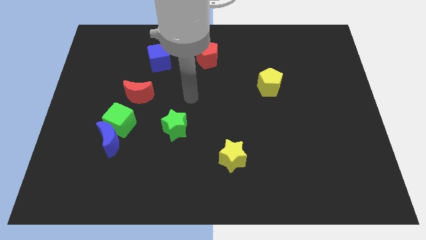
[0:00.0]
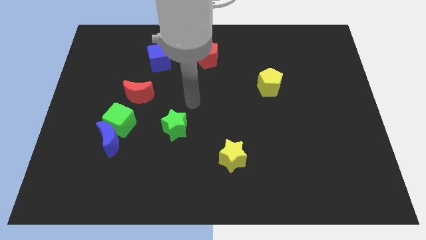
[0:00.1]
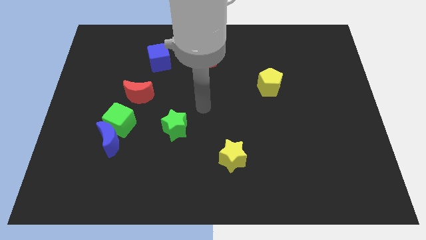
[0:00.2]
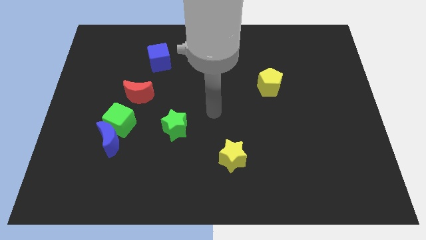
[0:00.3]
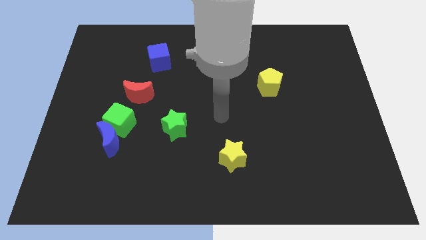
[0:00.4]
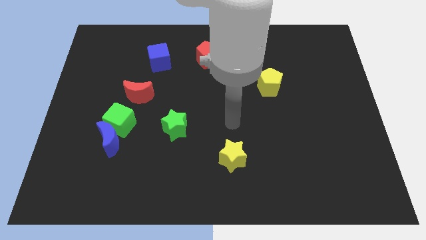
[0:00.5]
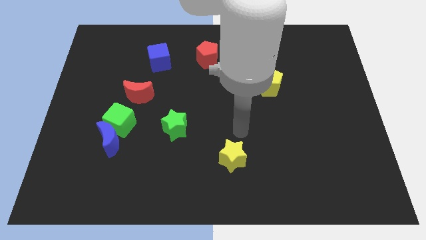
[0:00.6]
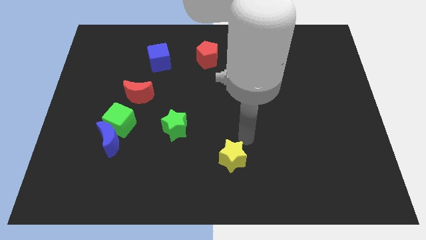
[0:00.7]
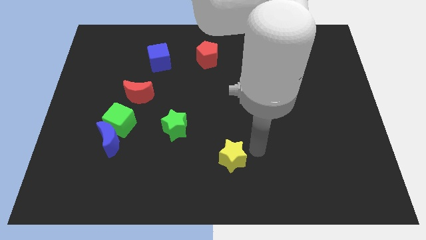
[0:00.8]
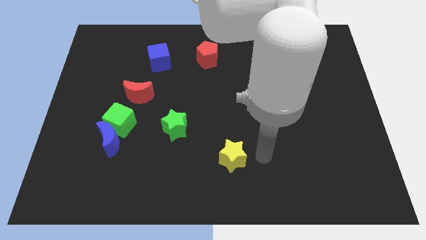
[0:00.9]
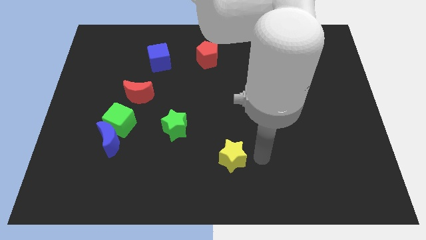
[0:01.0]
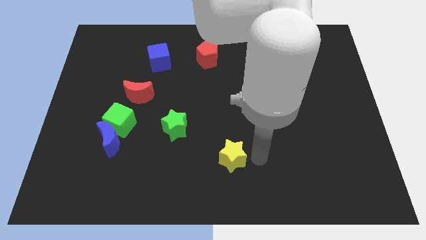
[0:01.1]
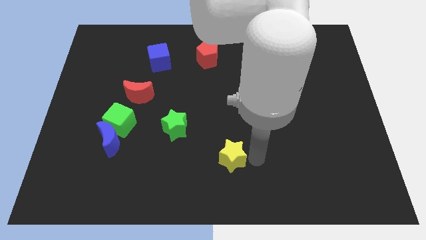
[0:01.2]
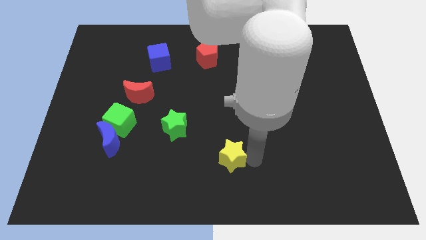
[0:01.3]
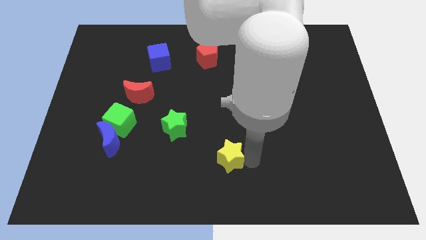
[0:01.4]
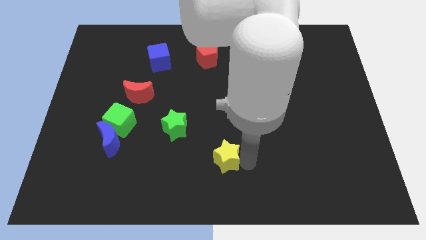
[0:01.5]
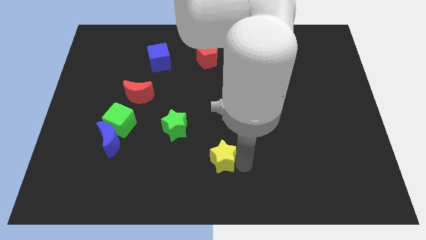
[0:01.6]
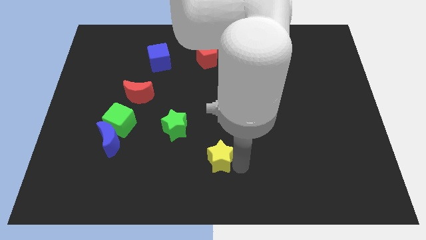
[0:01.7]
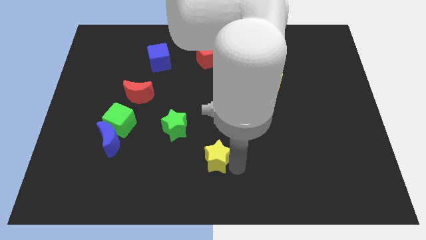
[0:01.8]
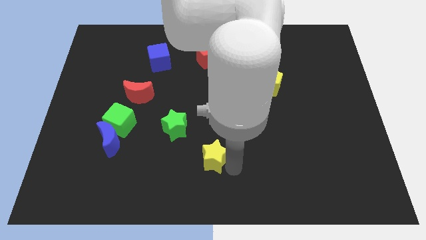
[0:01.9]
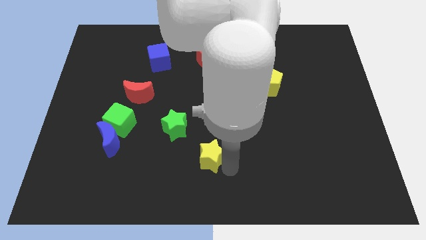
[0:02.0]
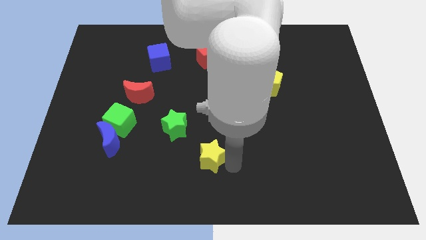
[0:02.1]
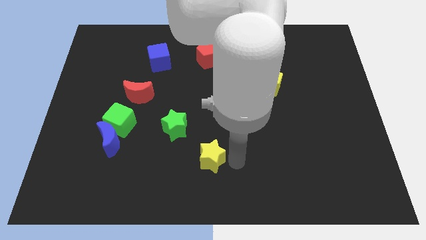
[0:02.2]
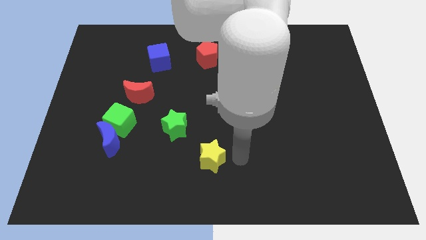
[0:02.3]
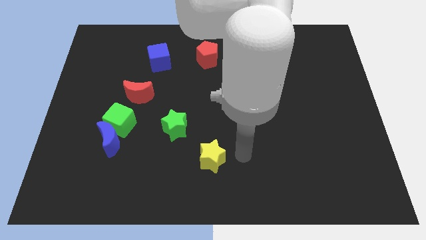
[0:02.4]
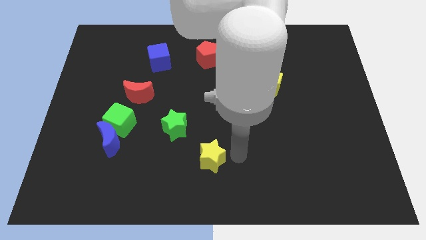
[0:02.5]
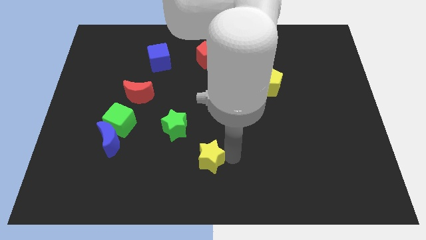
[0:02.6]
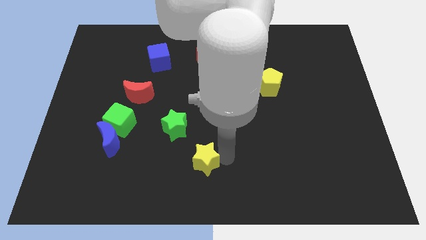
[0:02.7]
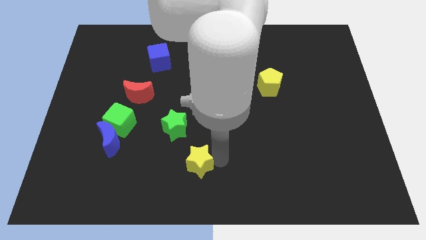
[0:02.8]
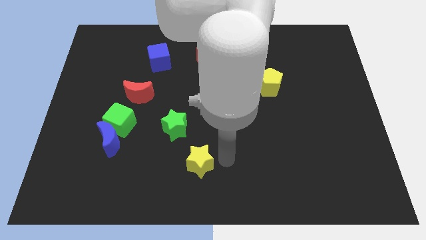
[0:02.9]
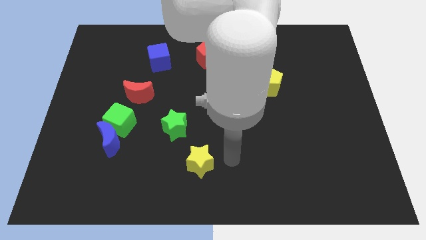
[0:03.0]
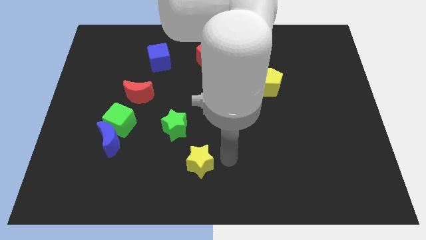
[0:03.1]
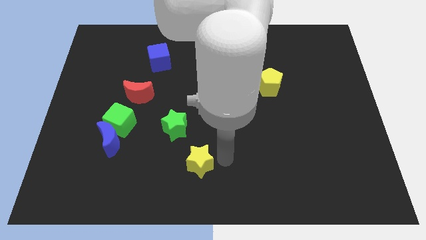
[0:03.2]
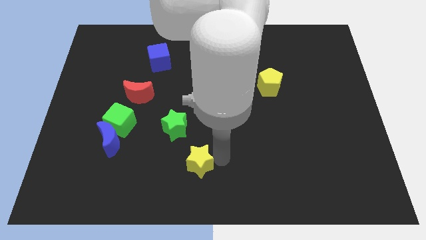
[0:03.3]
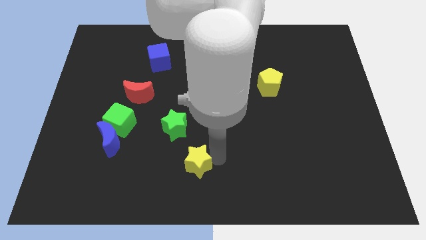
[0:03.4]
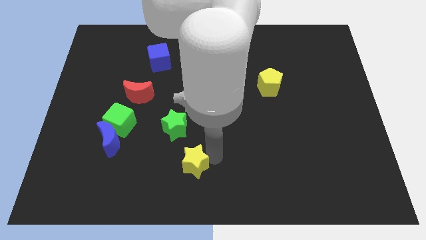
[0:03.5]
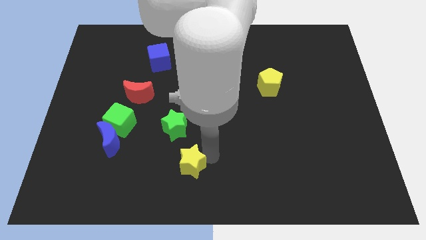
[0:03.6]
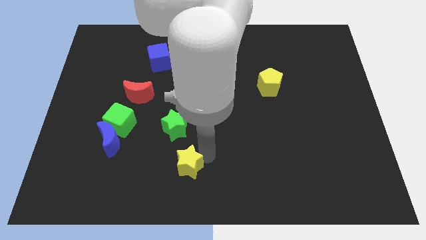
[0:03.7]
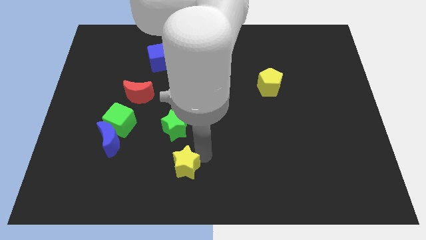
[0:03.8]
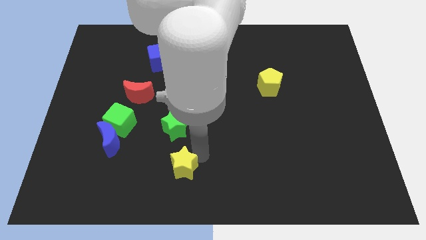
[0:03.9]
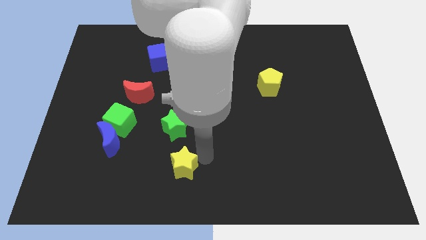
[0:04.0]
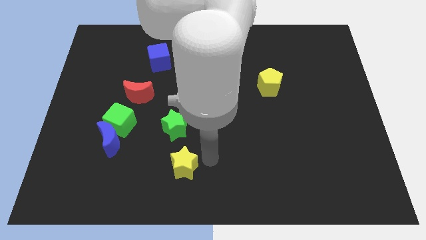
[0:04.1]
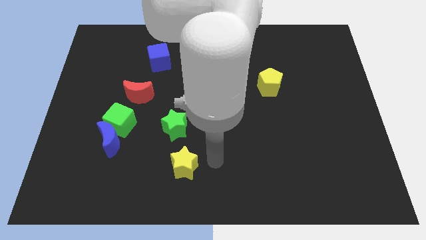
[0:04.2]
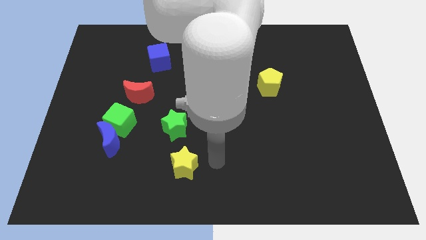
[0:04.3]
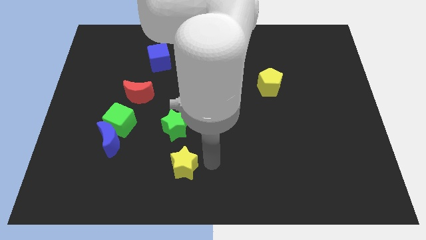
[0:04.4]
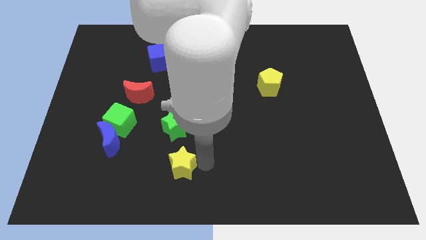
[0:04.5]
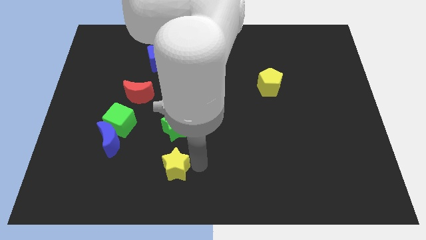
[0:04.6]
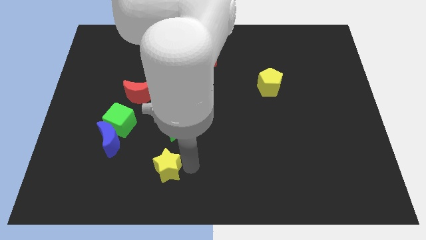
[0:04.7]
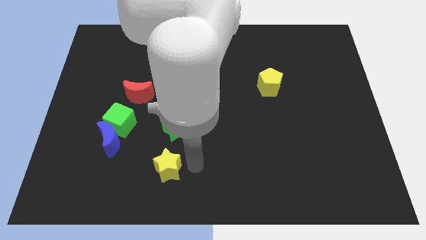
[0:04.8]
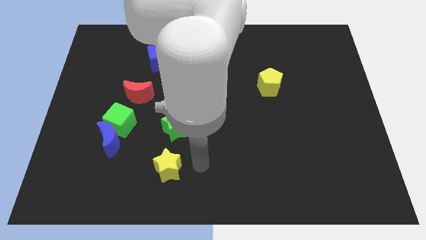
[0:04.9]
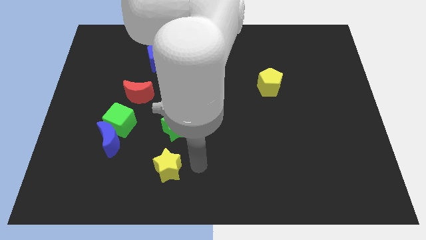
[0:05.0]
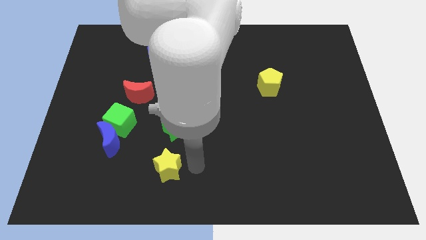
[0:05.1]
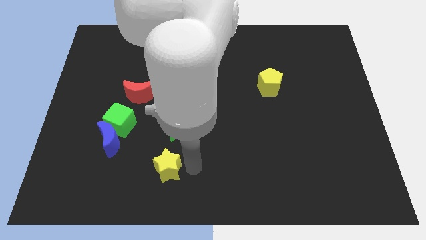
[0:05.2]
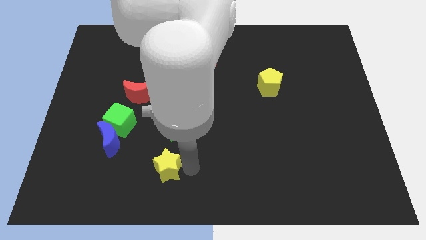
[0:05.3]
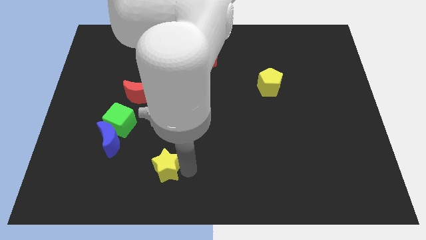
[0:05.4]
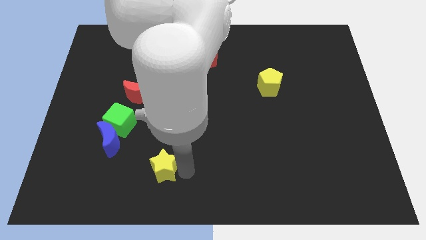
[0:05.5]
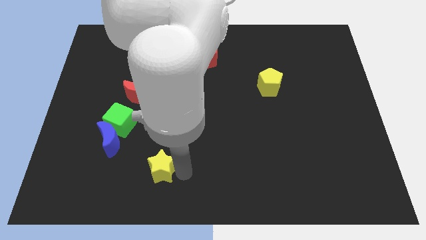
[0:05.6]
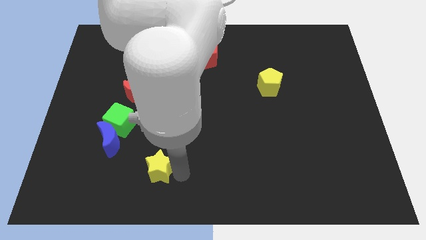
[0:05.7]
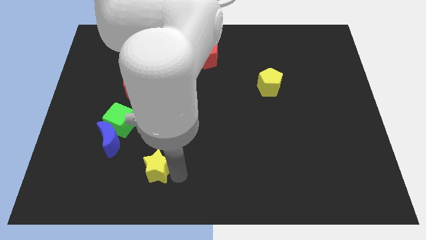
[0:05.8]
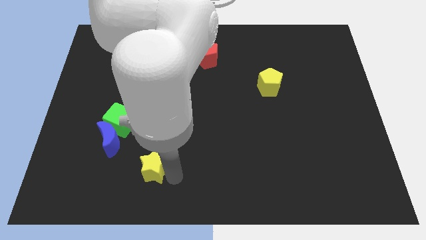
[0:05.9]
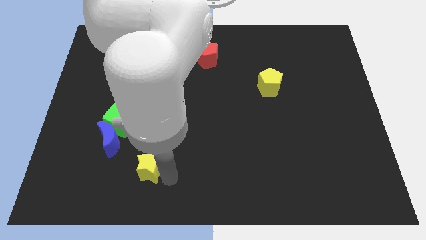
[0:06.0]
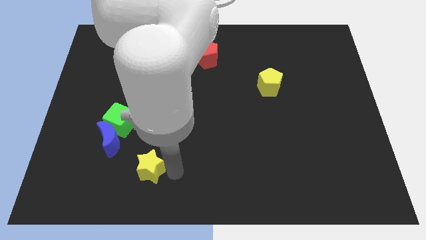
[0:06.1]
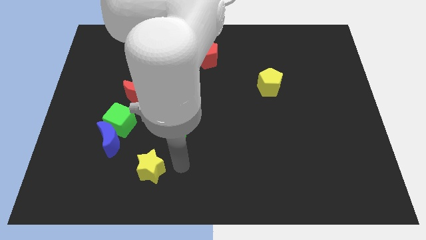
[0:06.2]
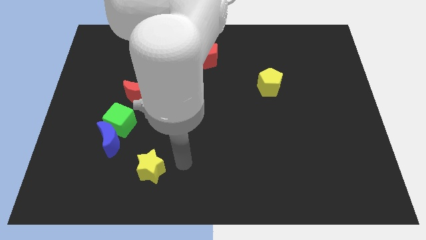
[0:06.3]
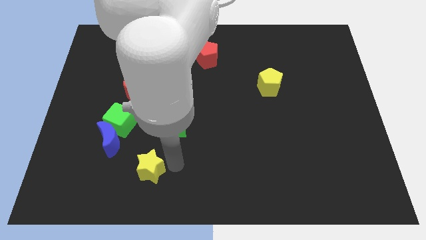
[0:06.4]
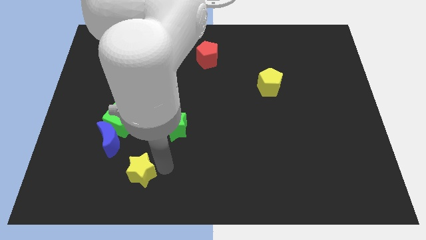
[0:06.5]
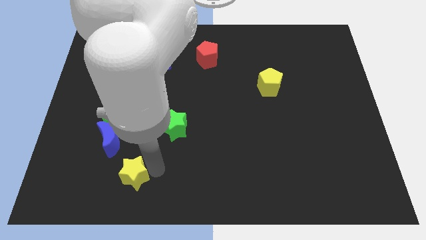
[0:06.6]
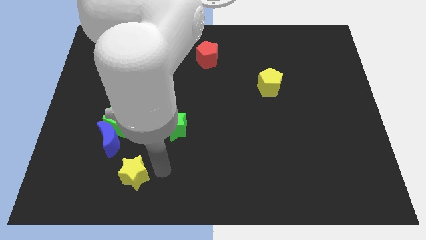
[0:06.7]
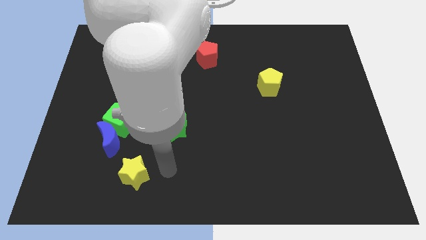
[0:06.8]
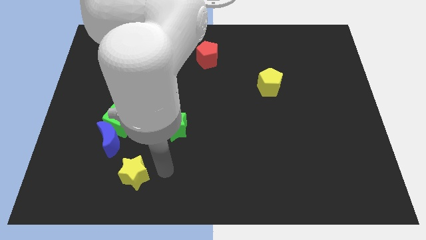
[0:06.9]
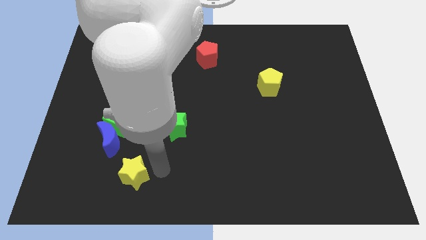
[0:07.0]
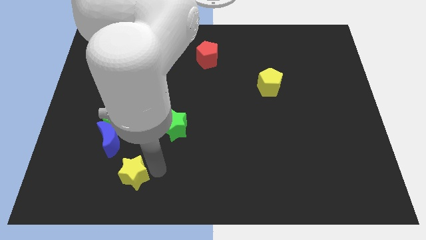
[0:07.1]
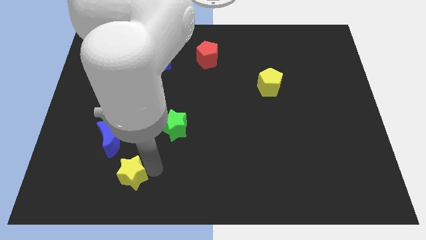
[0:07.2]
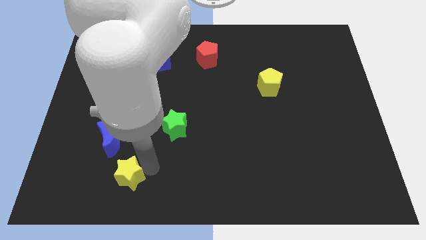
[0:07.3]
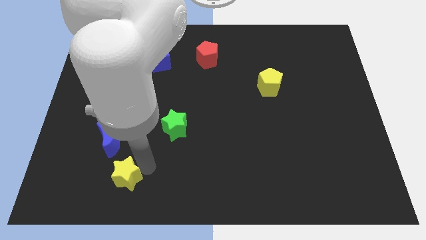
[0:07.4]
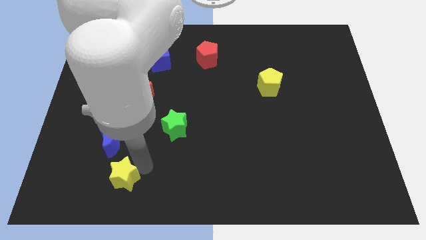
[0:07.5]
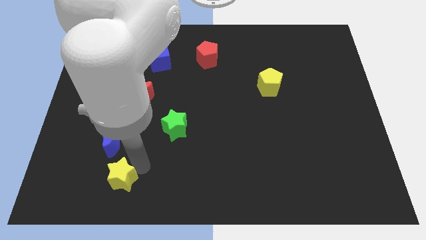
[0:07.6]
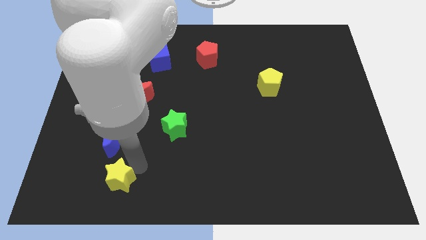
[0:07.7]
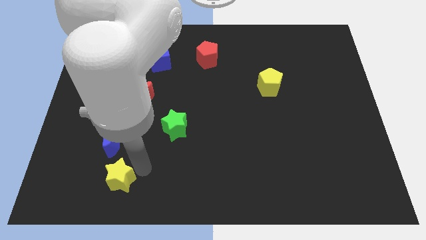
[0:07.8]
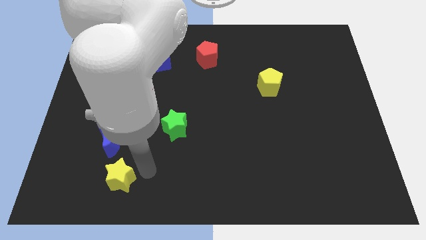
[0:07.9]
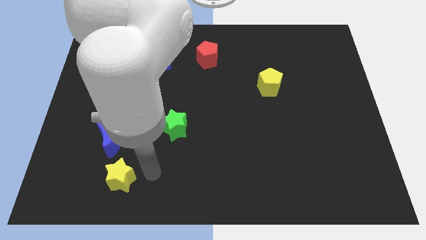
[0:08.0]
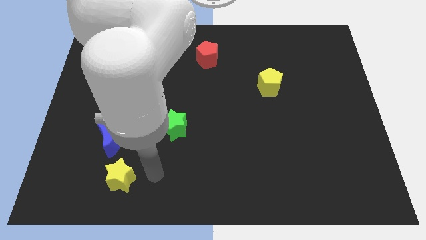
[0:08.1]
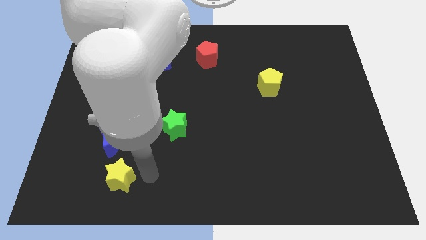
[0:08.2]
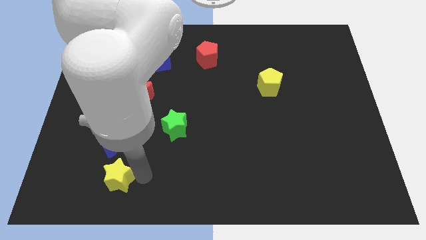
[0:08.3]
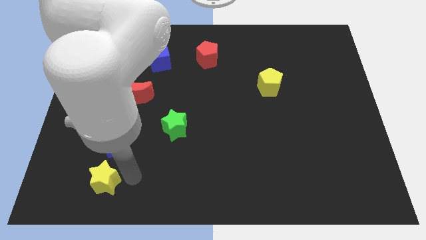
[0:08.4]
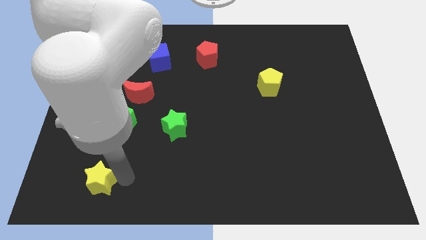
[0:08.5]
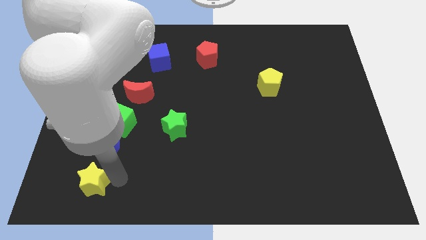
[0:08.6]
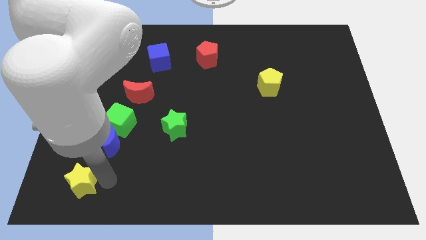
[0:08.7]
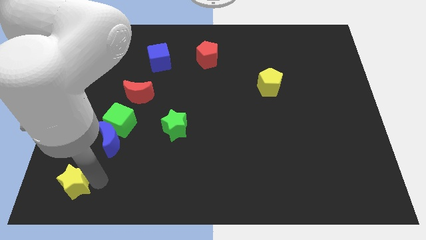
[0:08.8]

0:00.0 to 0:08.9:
push the yellow star to the bottom left
